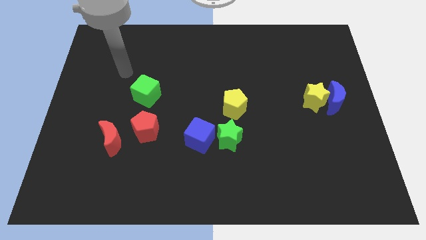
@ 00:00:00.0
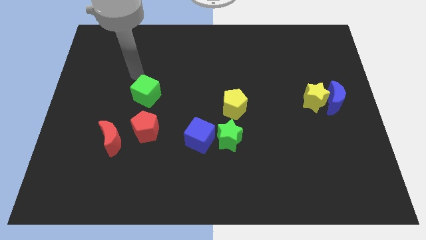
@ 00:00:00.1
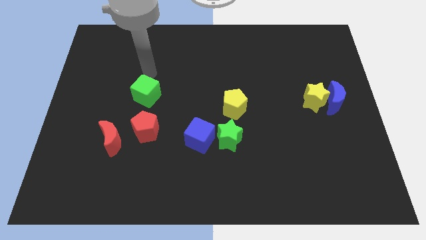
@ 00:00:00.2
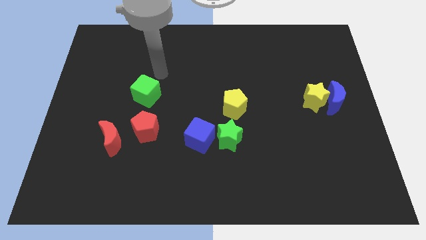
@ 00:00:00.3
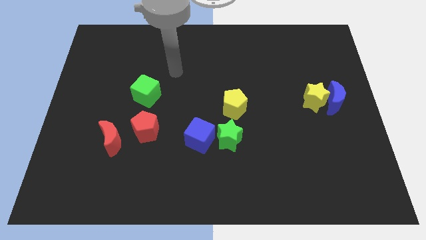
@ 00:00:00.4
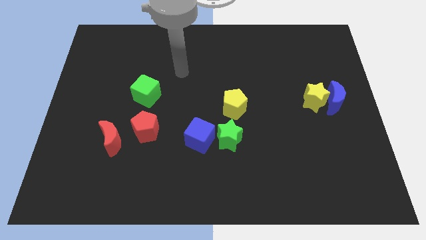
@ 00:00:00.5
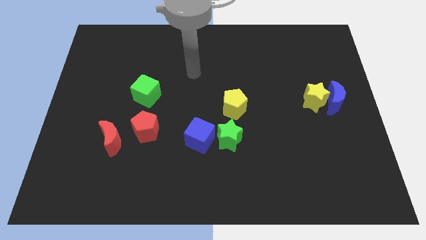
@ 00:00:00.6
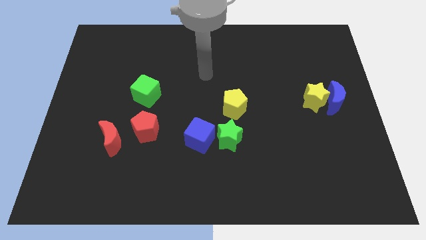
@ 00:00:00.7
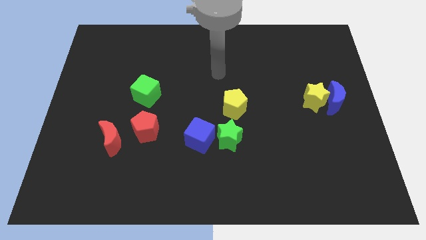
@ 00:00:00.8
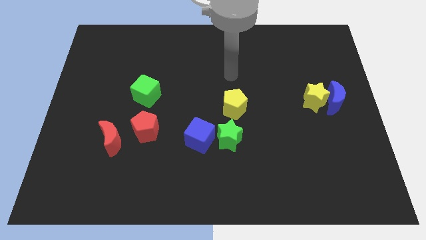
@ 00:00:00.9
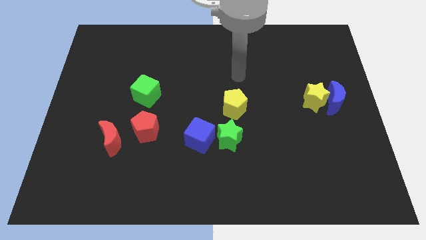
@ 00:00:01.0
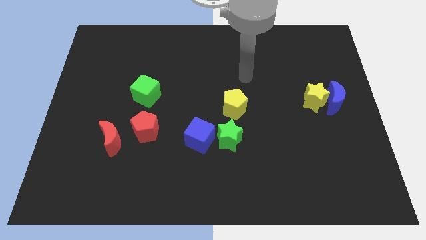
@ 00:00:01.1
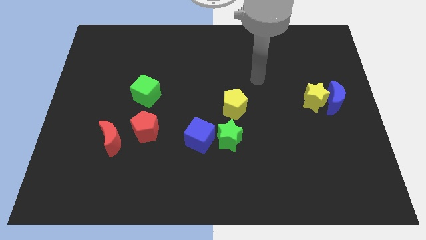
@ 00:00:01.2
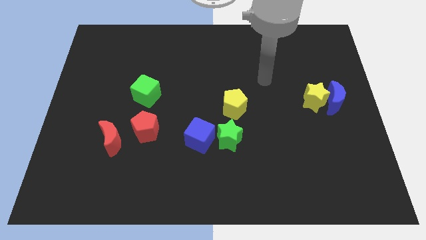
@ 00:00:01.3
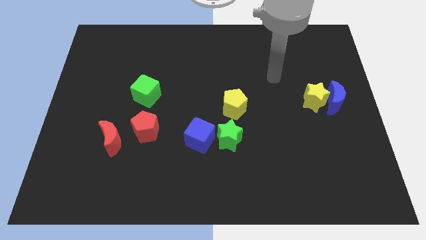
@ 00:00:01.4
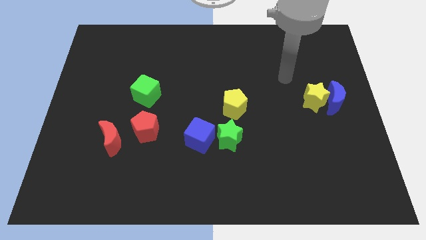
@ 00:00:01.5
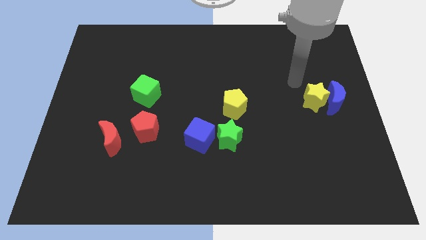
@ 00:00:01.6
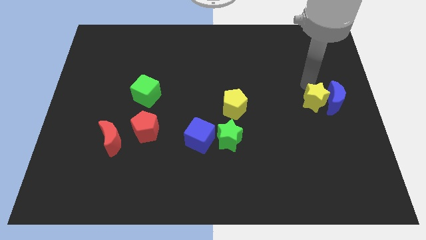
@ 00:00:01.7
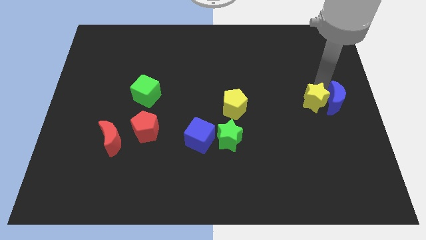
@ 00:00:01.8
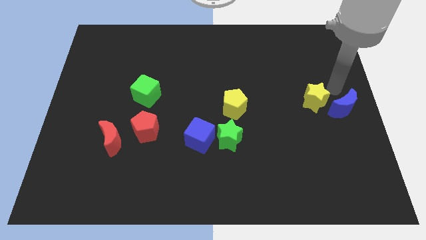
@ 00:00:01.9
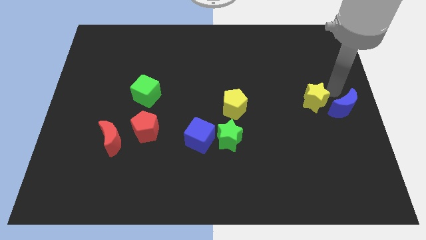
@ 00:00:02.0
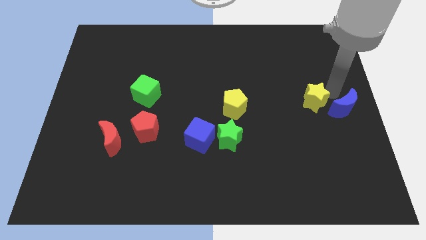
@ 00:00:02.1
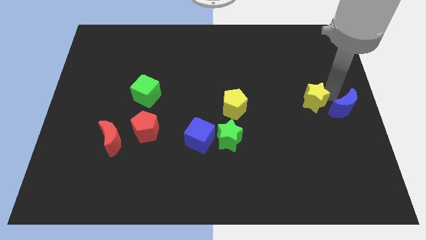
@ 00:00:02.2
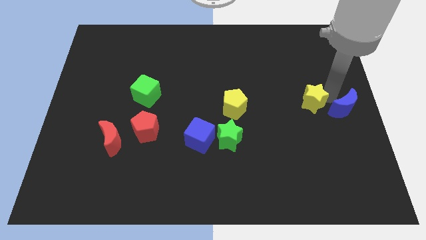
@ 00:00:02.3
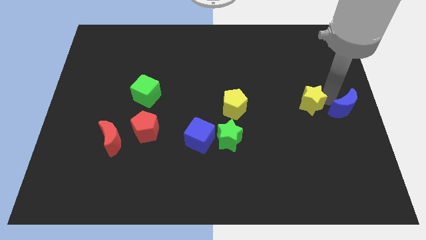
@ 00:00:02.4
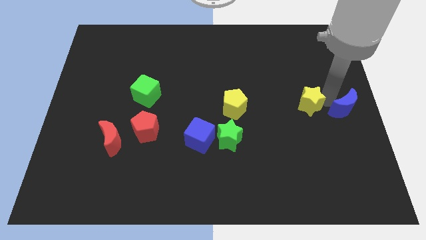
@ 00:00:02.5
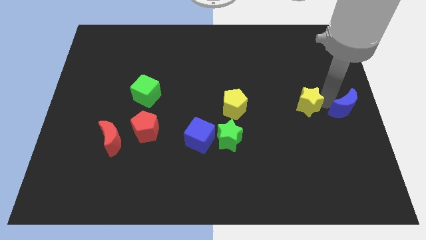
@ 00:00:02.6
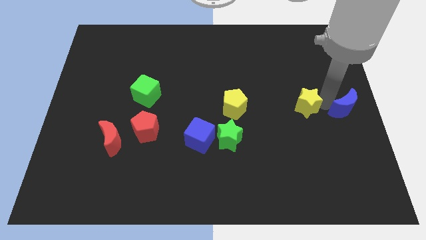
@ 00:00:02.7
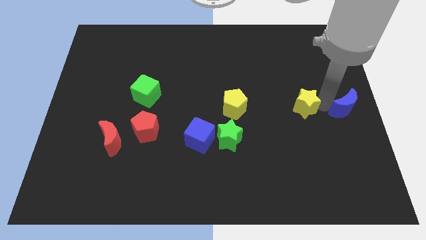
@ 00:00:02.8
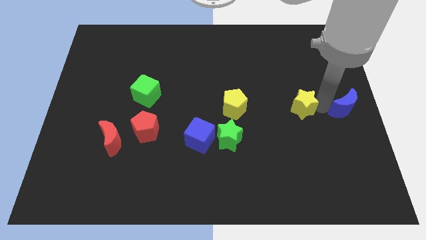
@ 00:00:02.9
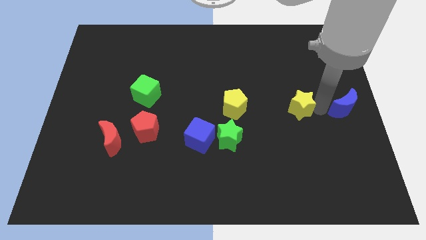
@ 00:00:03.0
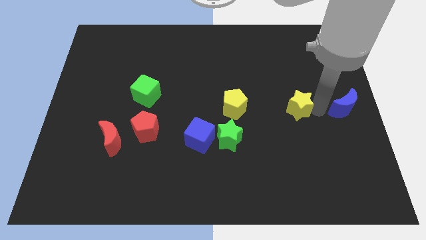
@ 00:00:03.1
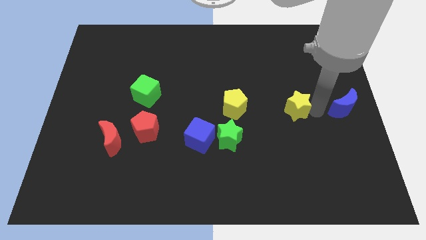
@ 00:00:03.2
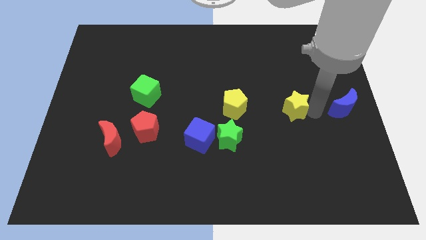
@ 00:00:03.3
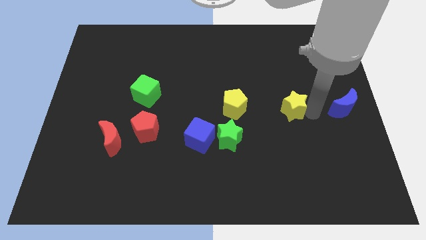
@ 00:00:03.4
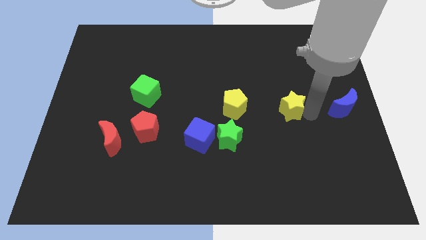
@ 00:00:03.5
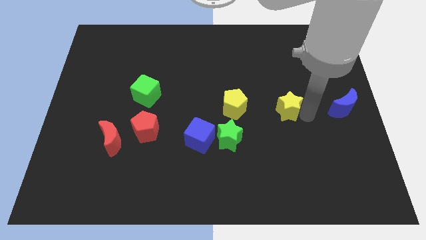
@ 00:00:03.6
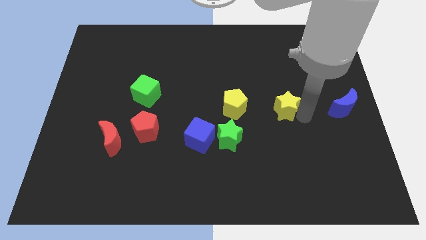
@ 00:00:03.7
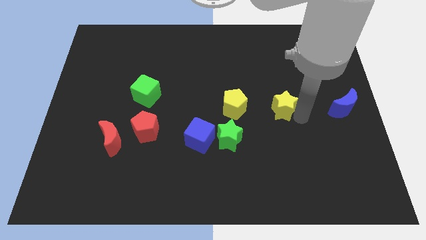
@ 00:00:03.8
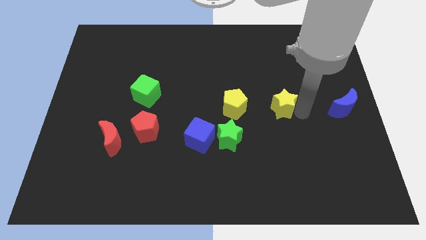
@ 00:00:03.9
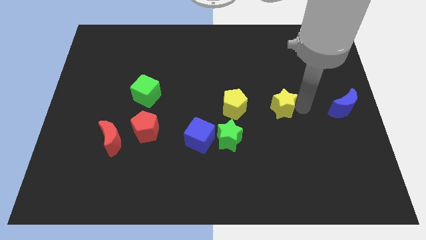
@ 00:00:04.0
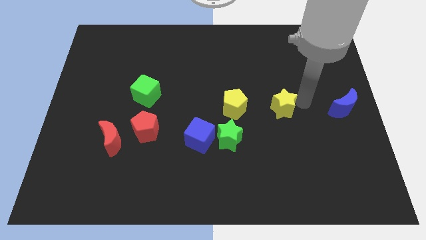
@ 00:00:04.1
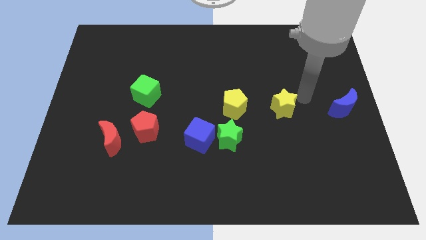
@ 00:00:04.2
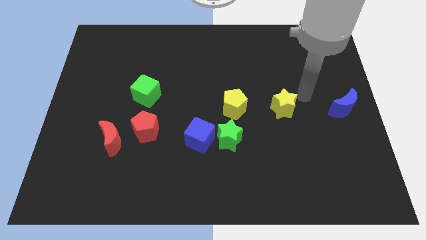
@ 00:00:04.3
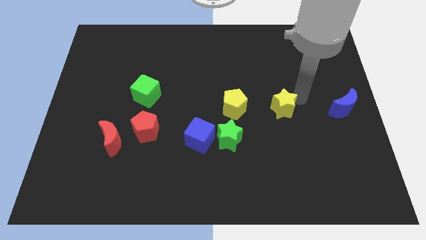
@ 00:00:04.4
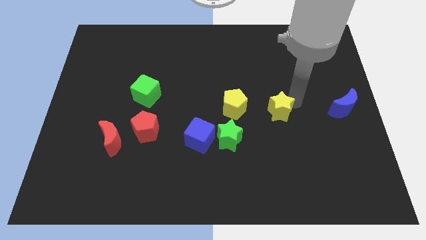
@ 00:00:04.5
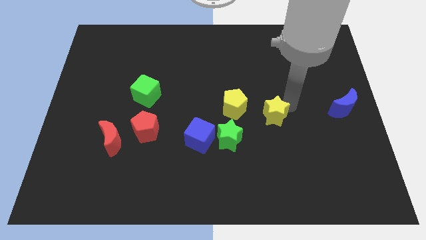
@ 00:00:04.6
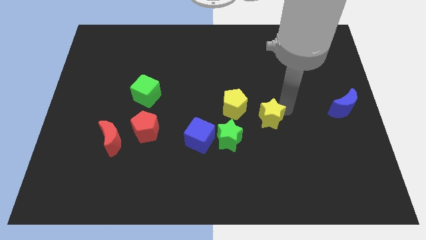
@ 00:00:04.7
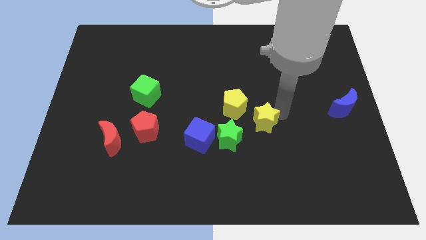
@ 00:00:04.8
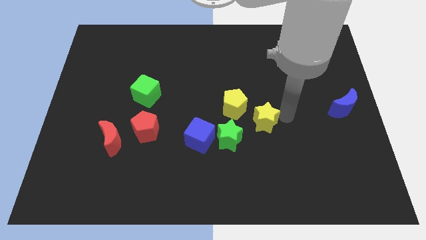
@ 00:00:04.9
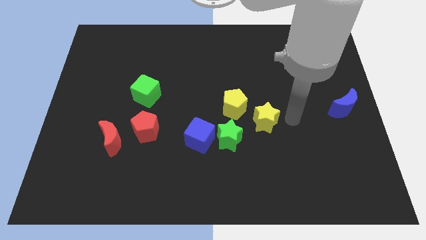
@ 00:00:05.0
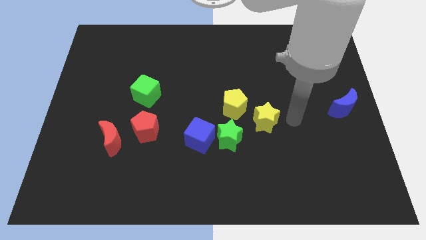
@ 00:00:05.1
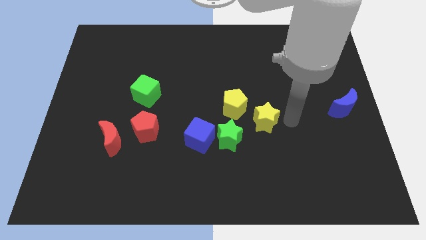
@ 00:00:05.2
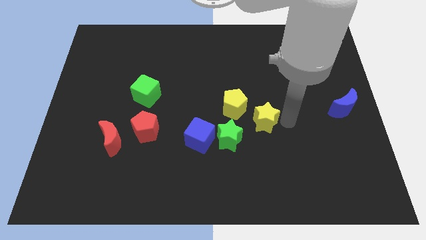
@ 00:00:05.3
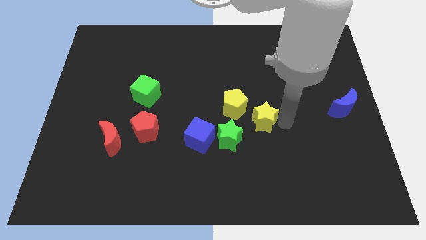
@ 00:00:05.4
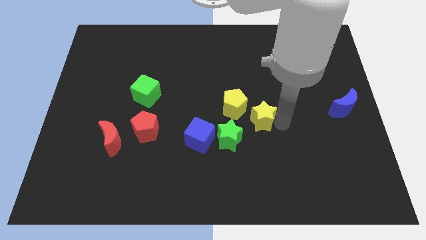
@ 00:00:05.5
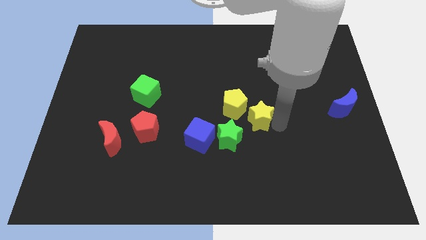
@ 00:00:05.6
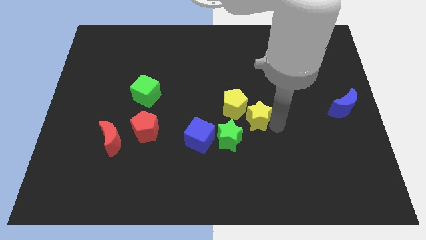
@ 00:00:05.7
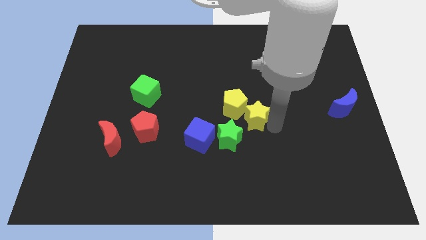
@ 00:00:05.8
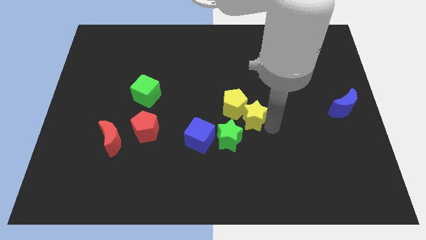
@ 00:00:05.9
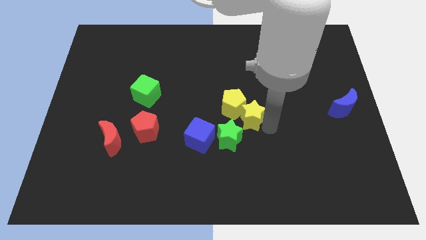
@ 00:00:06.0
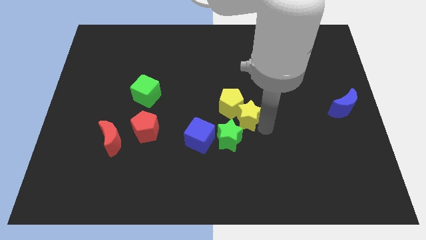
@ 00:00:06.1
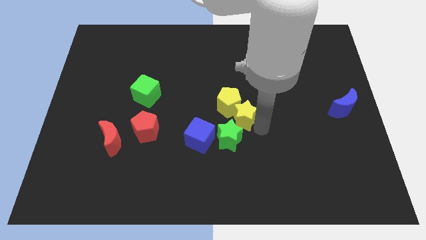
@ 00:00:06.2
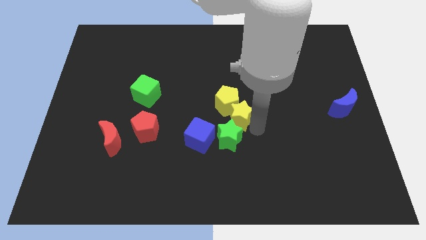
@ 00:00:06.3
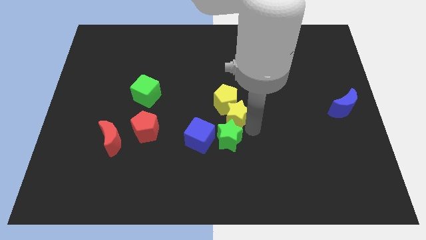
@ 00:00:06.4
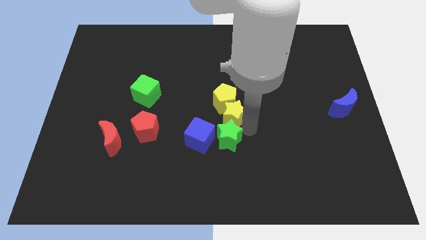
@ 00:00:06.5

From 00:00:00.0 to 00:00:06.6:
push the yellow star to the bottom left of the yellow pentagon
